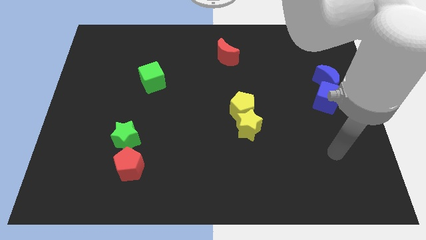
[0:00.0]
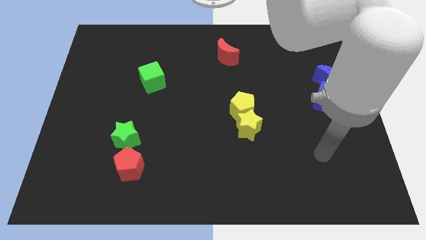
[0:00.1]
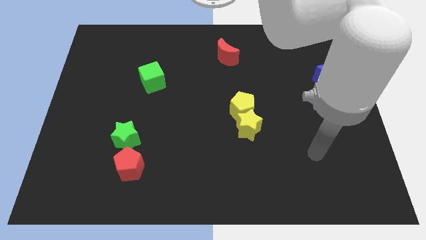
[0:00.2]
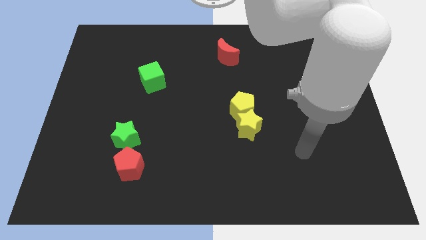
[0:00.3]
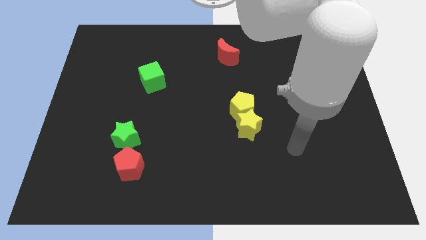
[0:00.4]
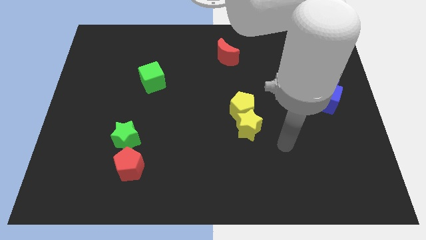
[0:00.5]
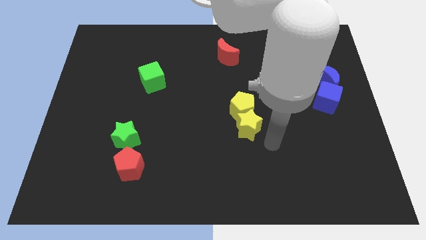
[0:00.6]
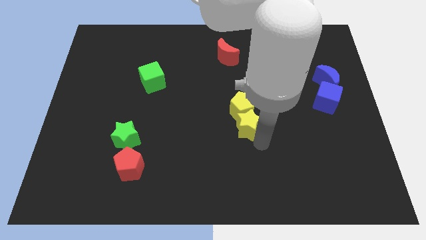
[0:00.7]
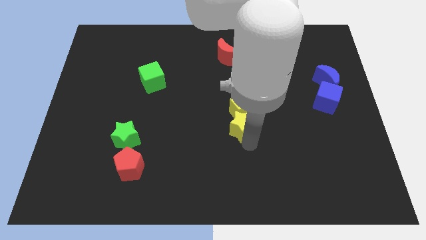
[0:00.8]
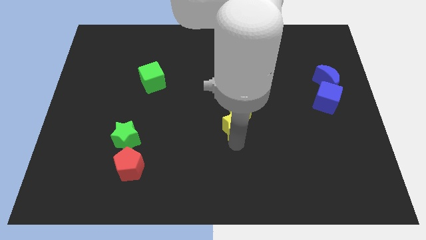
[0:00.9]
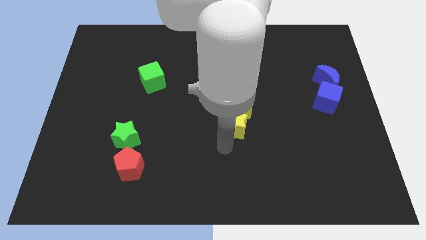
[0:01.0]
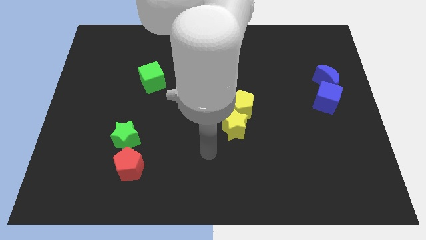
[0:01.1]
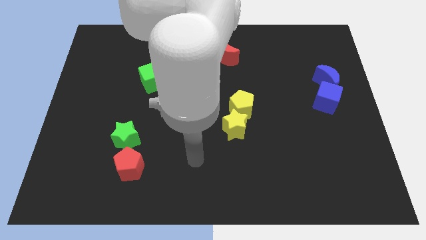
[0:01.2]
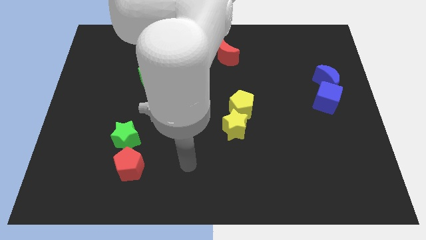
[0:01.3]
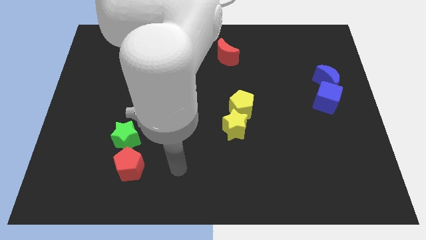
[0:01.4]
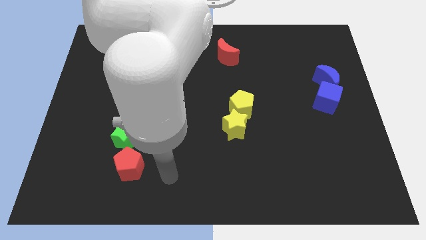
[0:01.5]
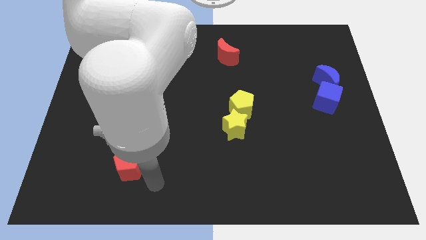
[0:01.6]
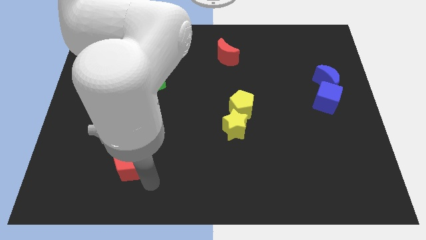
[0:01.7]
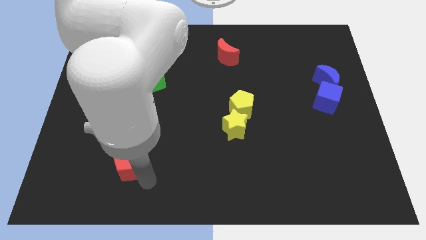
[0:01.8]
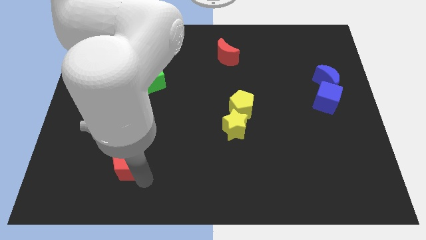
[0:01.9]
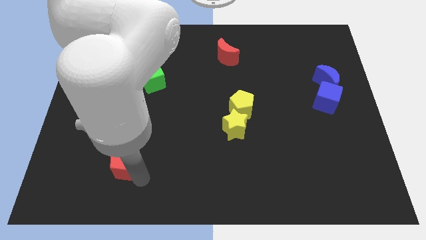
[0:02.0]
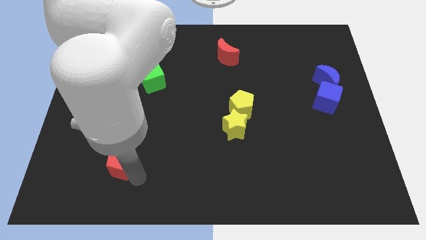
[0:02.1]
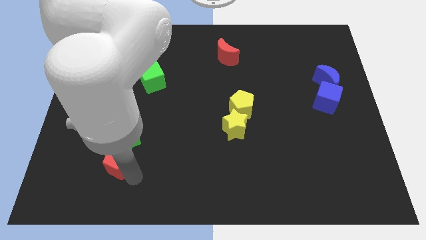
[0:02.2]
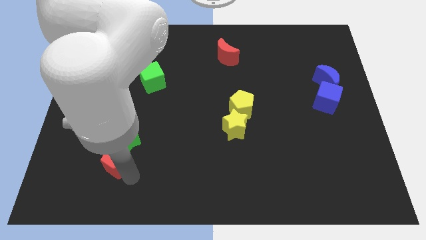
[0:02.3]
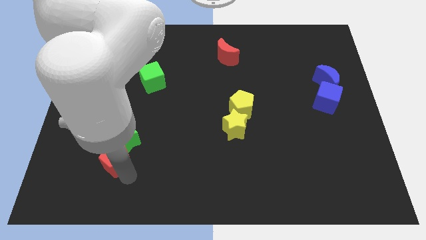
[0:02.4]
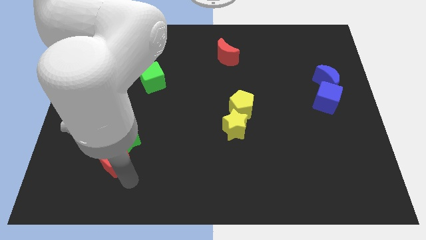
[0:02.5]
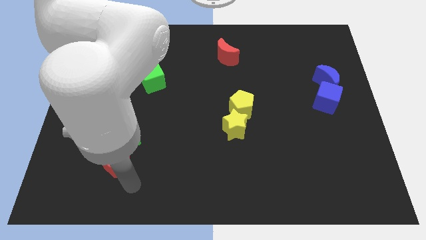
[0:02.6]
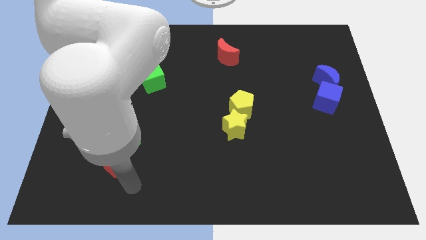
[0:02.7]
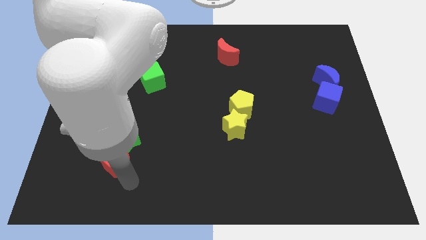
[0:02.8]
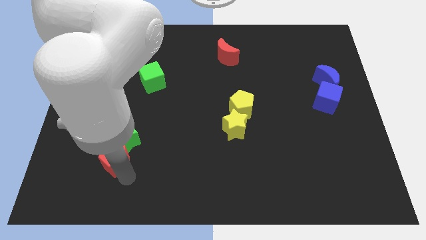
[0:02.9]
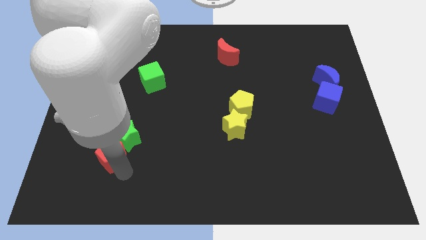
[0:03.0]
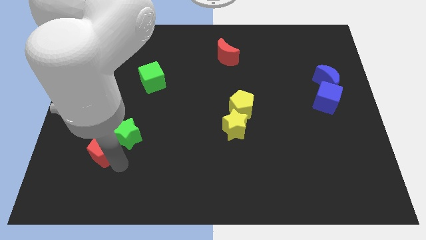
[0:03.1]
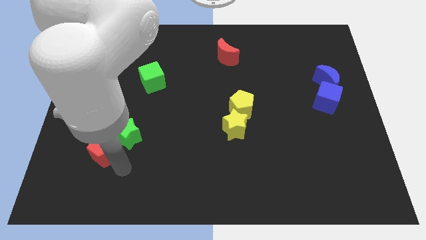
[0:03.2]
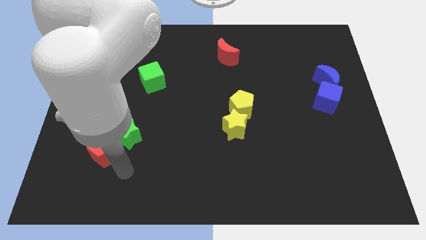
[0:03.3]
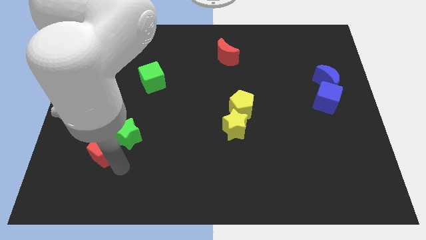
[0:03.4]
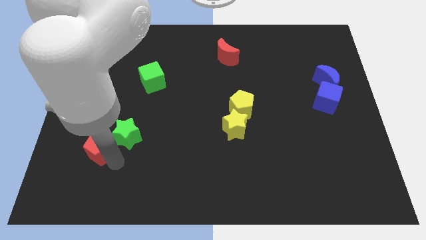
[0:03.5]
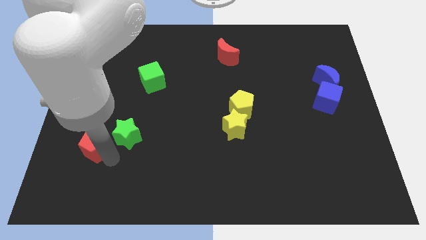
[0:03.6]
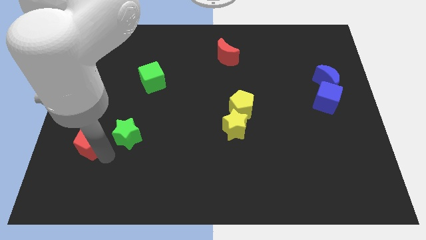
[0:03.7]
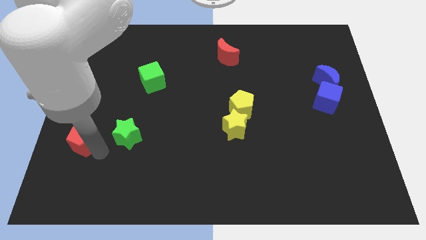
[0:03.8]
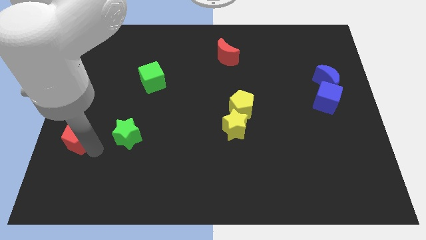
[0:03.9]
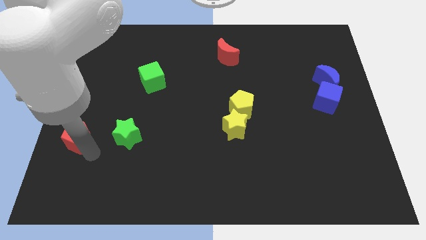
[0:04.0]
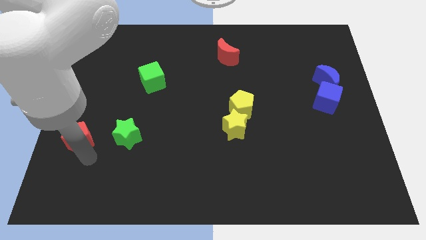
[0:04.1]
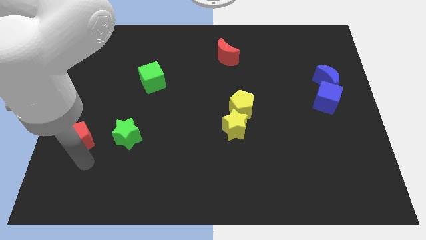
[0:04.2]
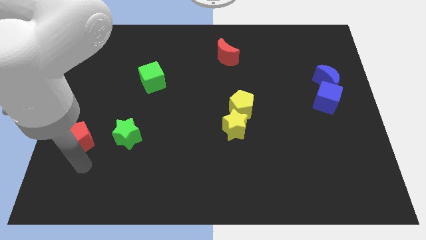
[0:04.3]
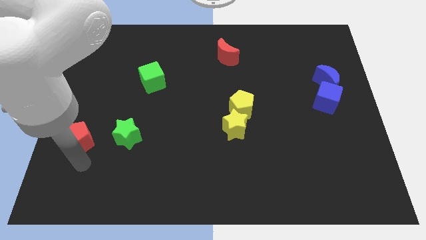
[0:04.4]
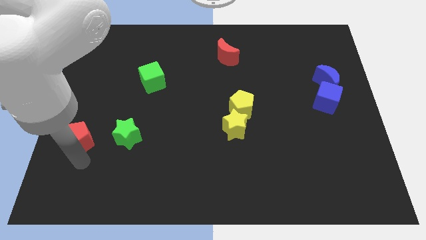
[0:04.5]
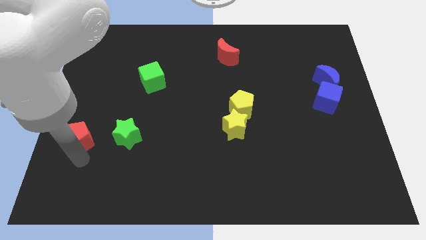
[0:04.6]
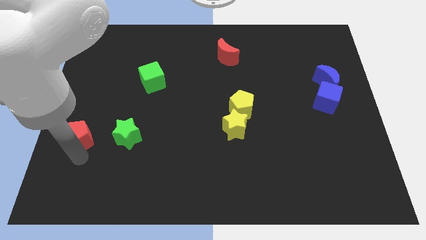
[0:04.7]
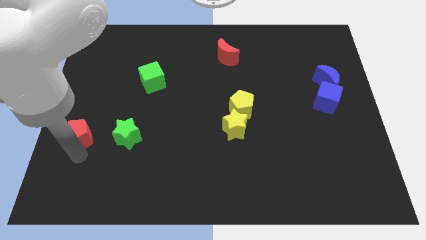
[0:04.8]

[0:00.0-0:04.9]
push the red pentagon to the left side of the board
